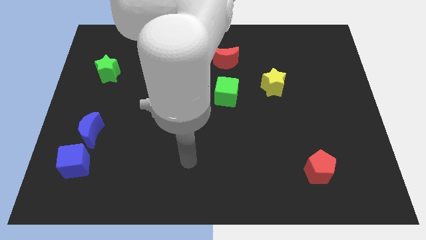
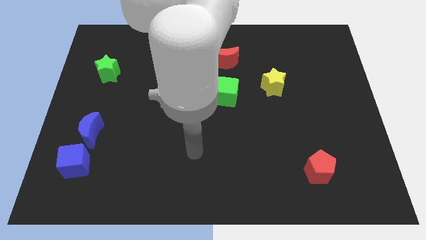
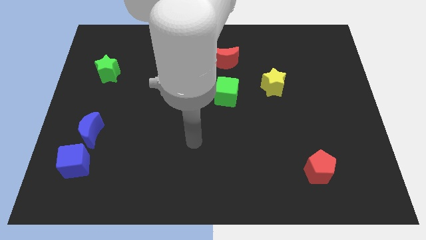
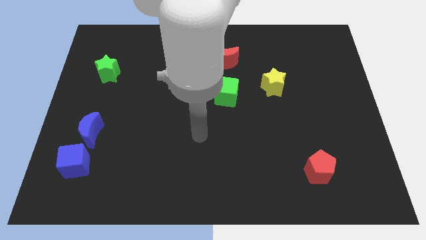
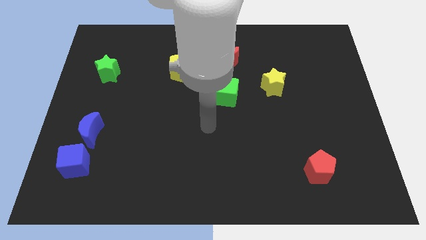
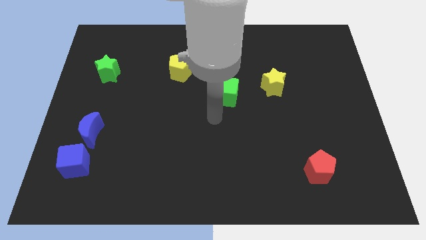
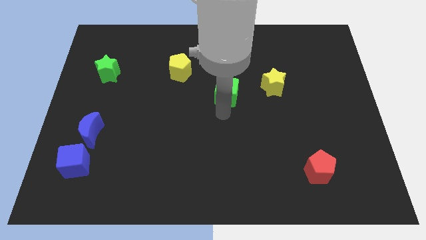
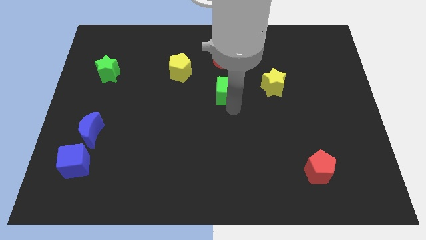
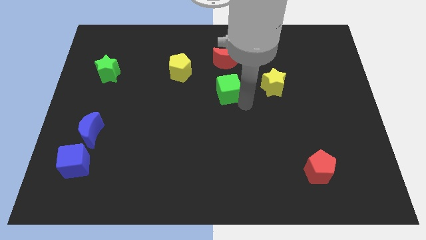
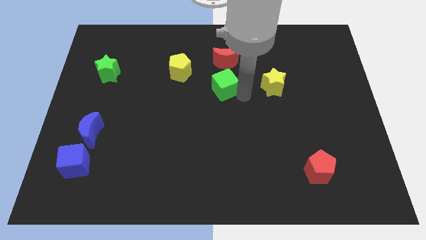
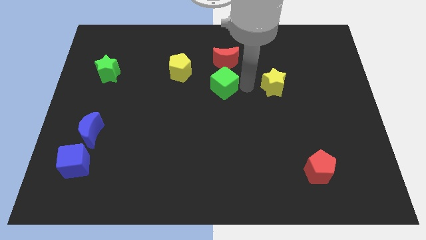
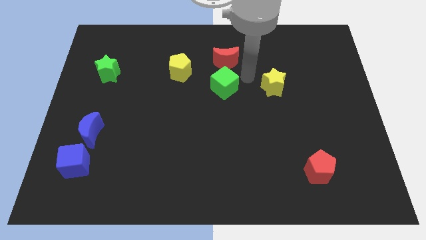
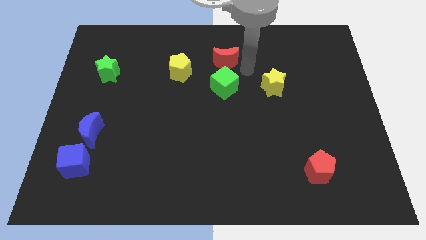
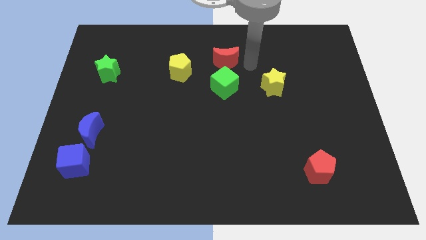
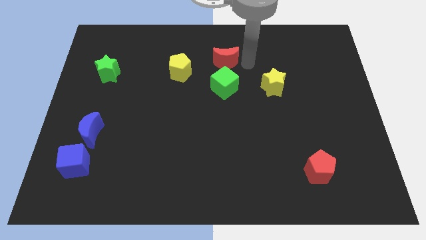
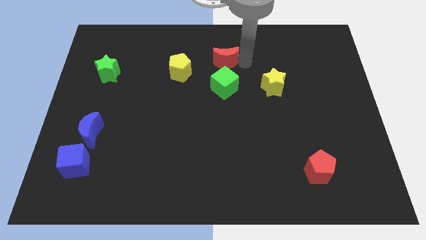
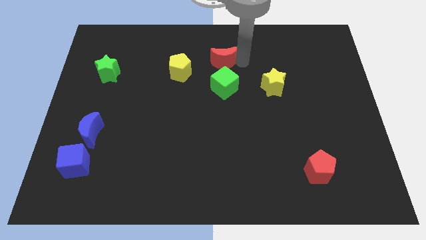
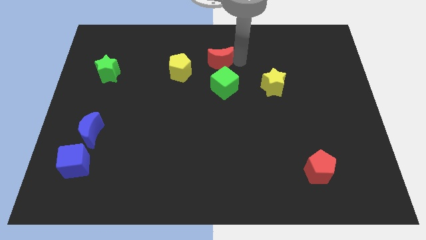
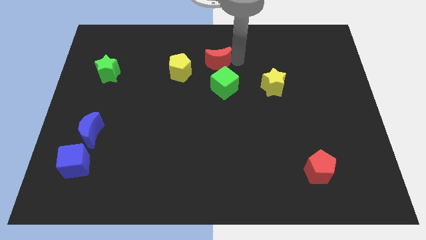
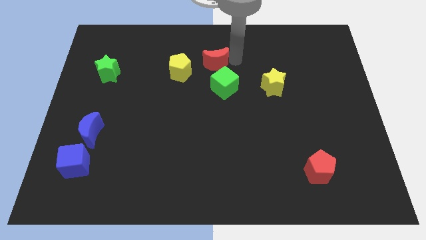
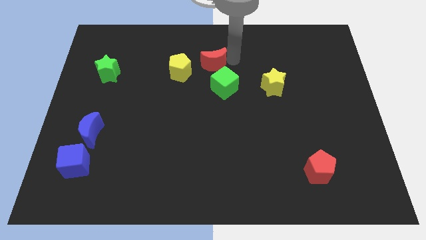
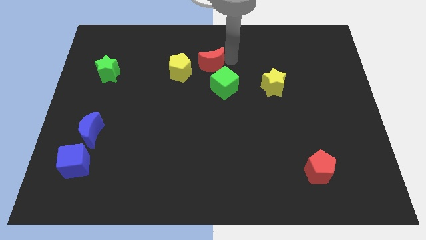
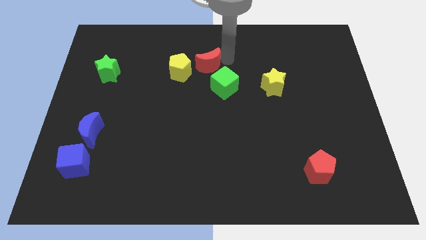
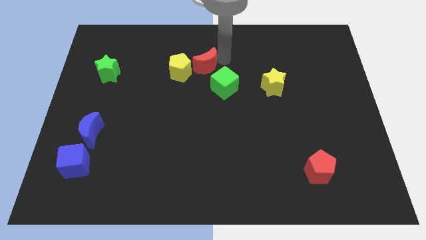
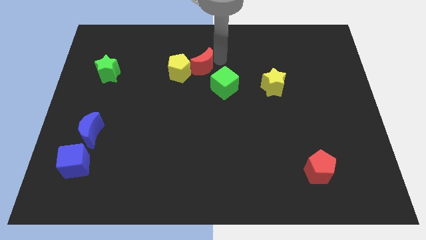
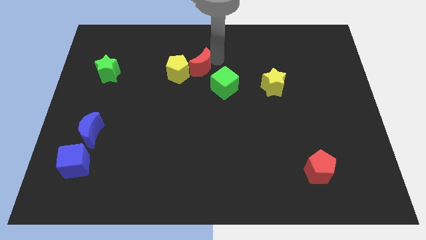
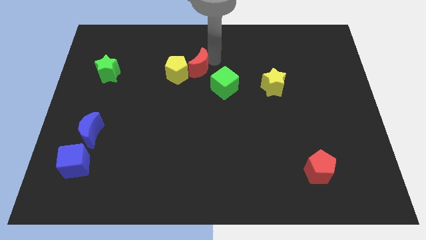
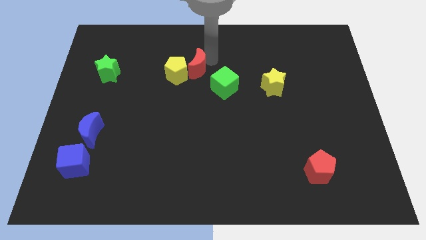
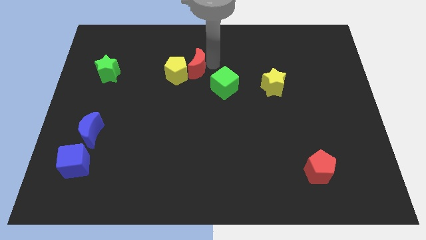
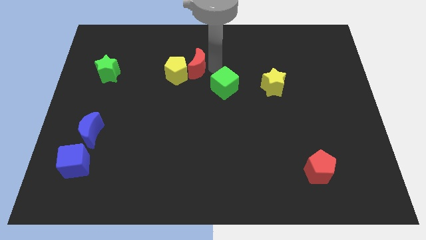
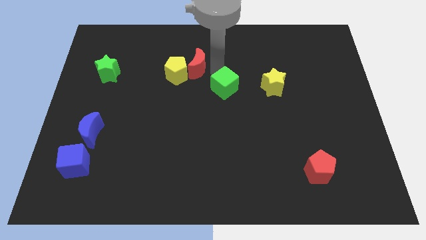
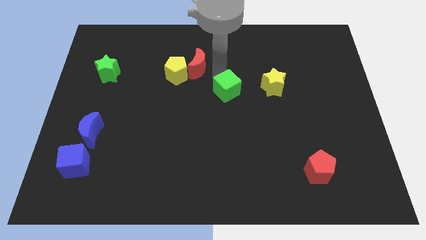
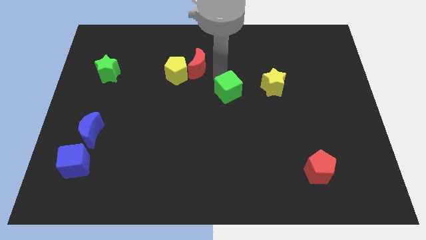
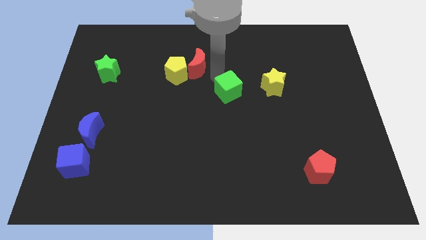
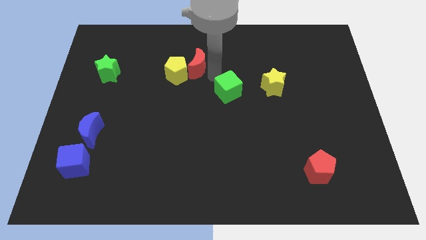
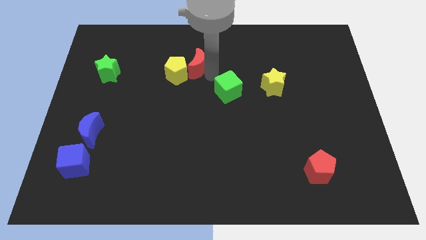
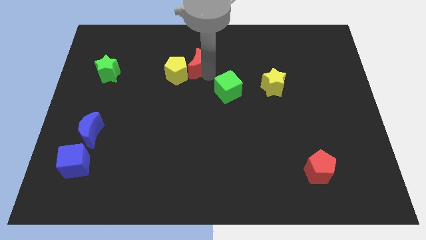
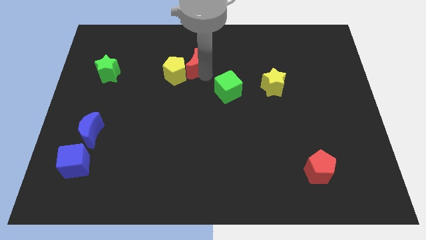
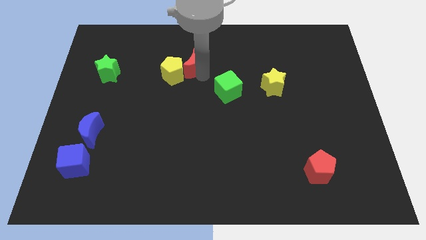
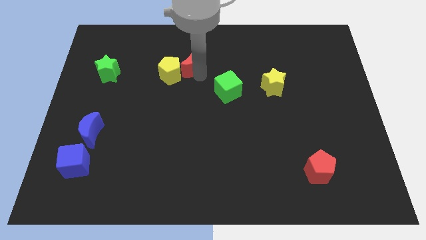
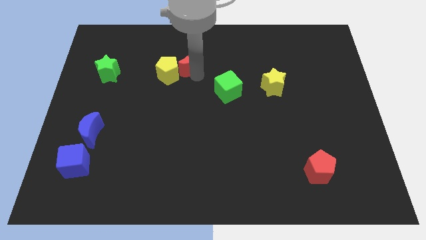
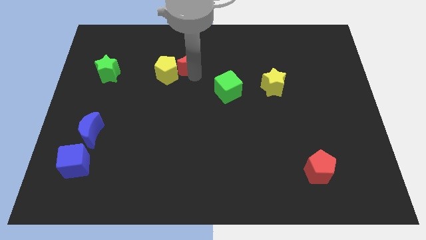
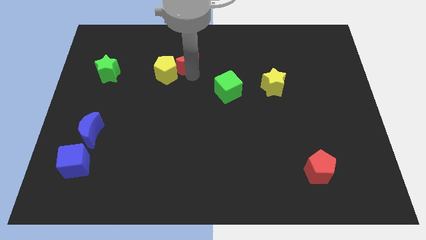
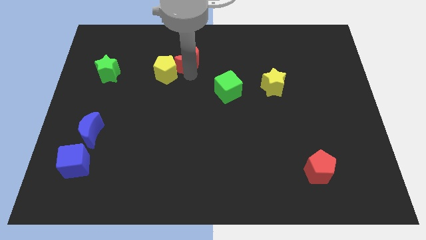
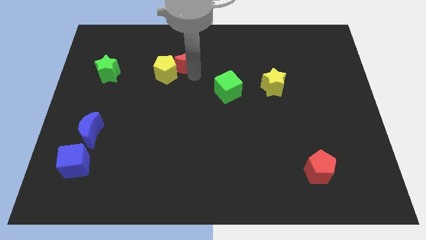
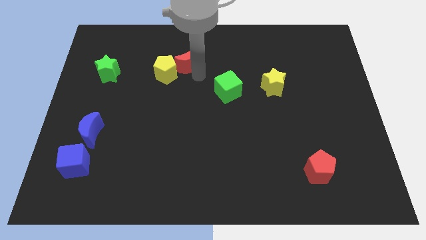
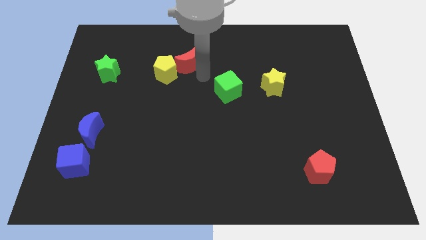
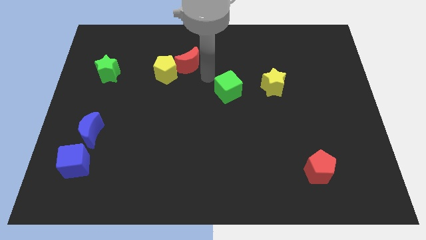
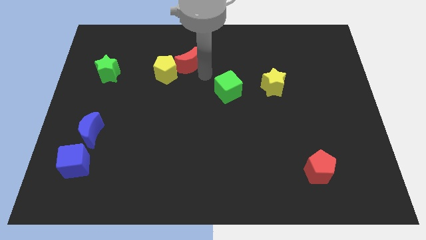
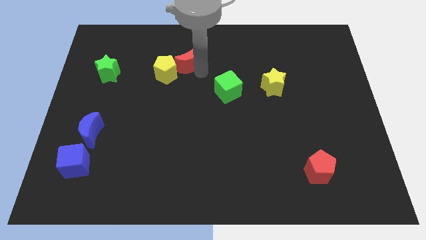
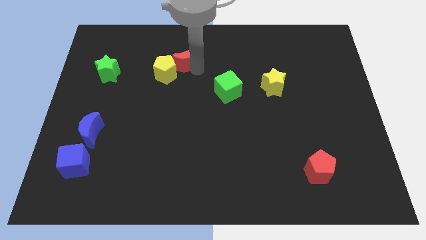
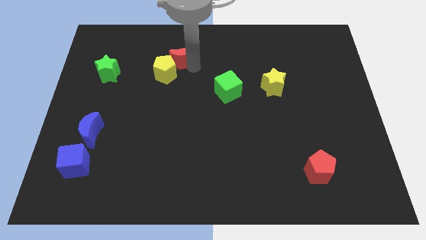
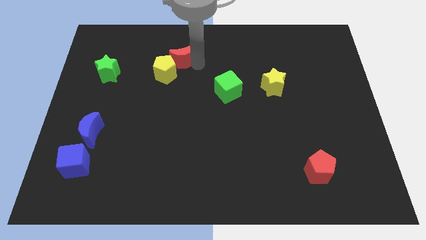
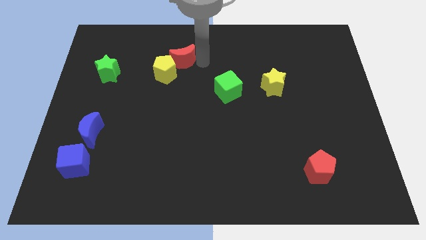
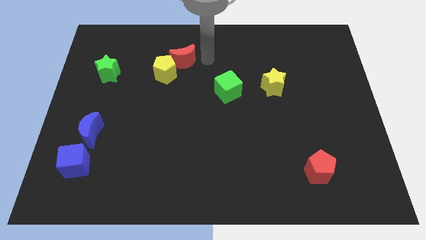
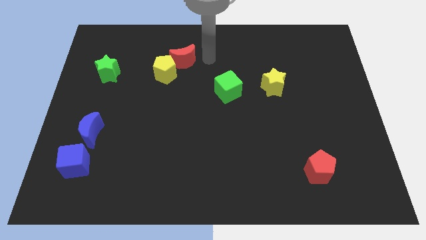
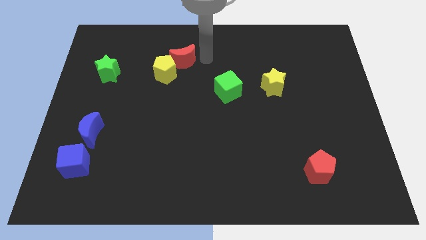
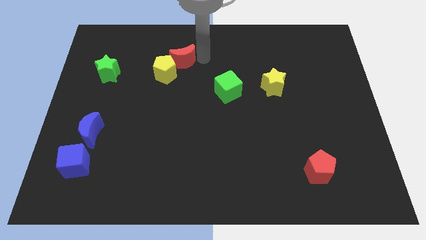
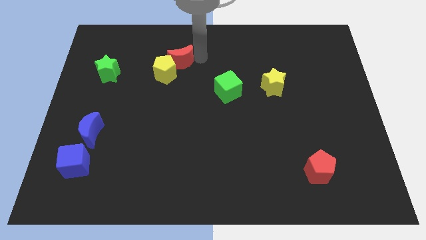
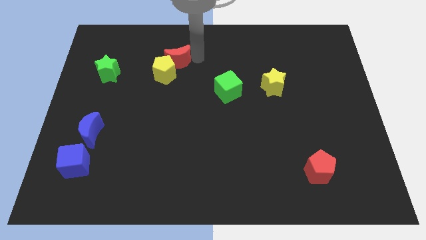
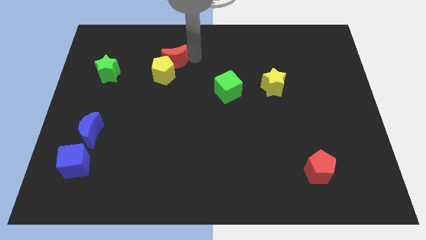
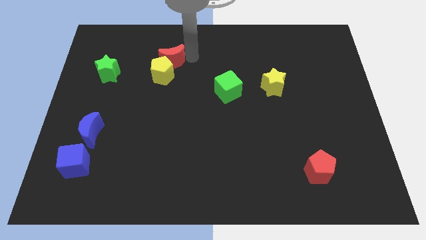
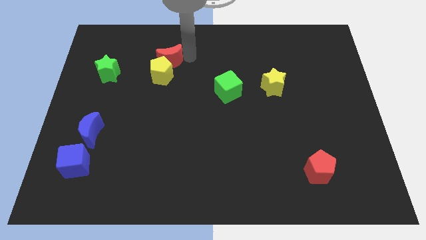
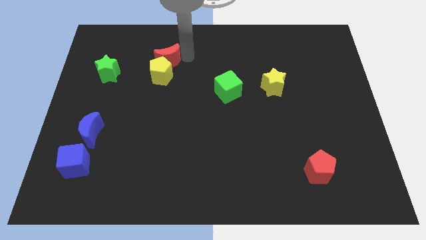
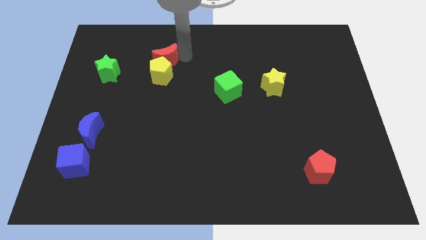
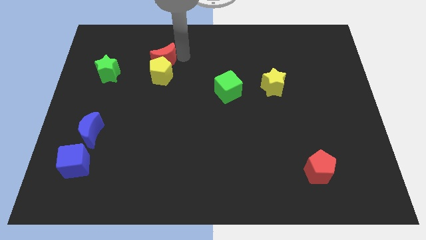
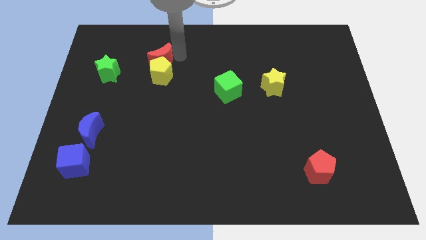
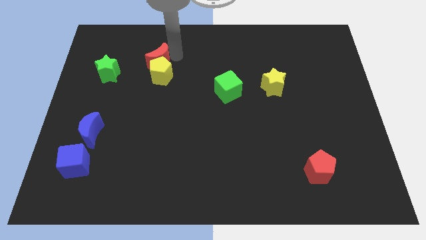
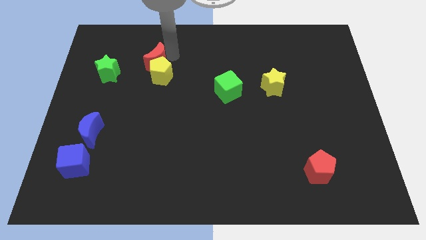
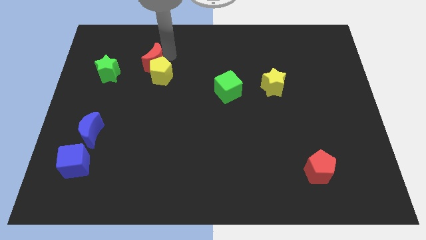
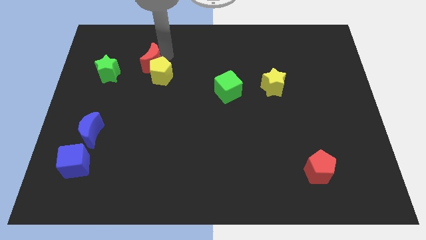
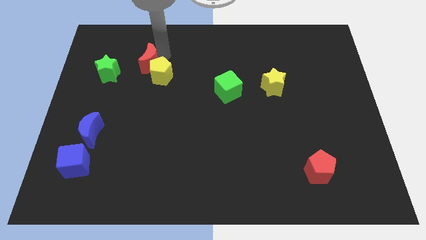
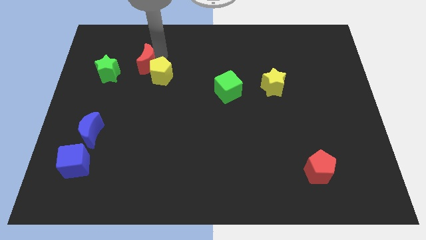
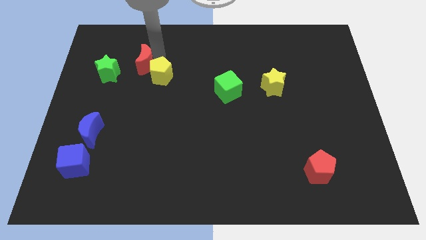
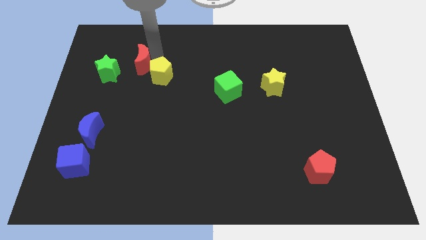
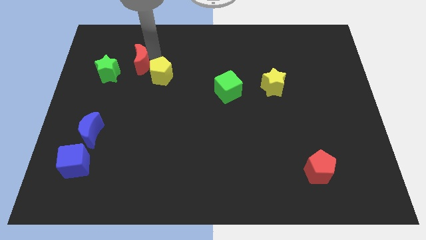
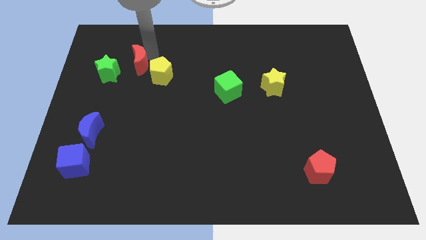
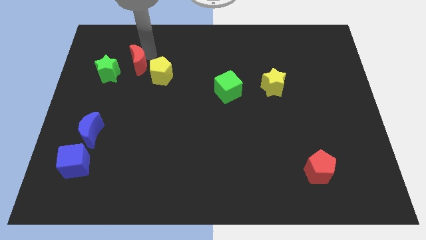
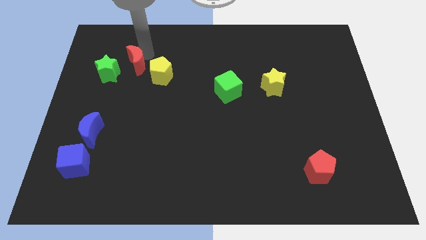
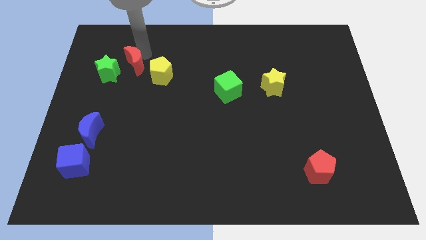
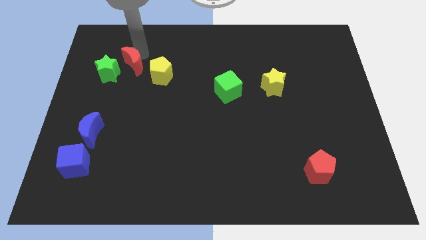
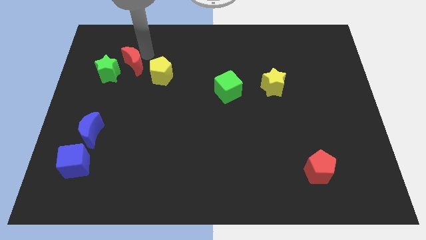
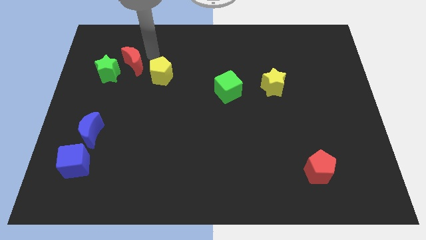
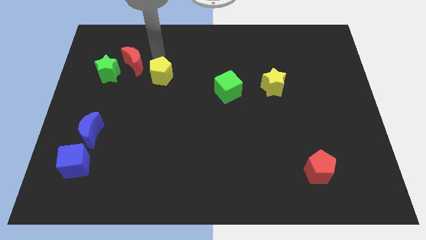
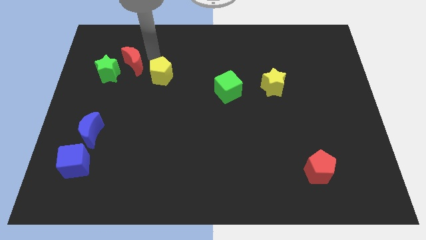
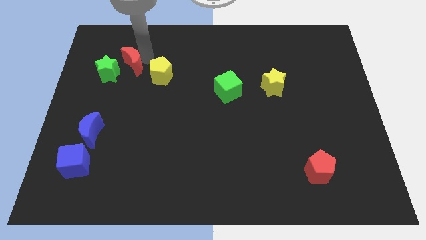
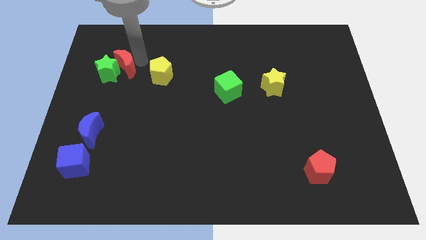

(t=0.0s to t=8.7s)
push the red moon to the green star
